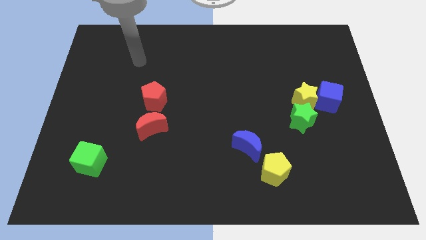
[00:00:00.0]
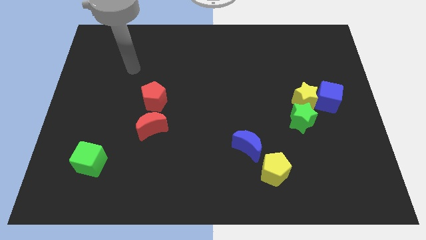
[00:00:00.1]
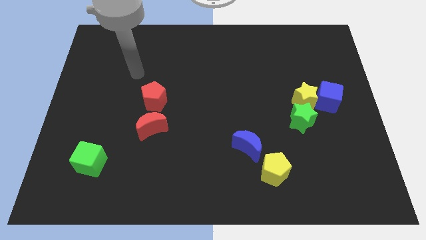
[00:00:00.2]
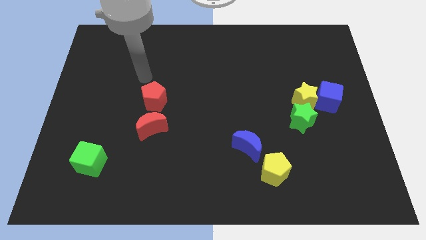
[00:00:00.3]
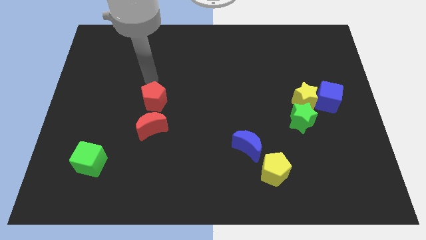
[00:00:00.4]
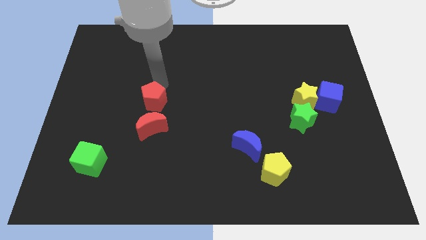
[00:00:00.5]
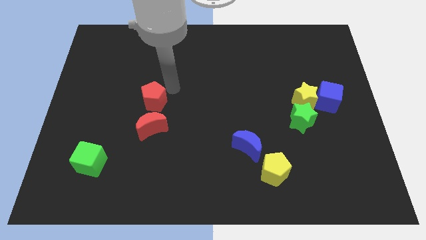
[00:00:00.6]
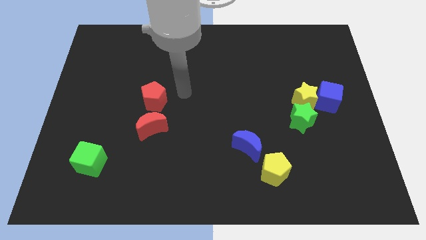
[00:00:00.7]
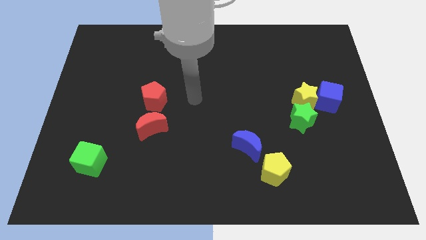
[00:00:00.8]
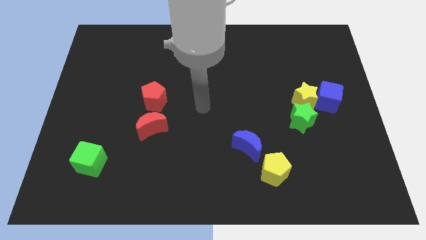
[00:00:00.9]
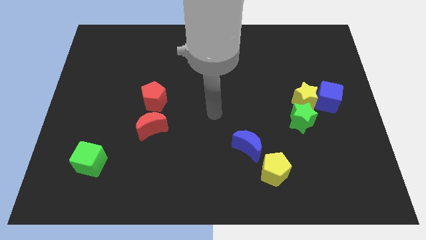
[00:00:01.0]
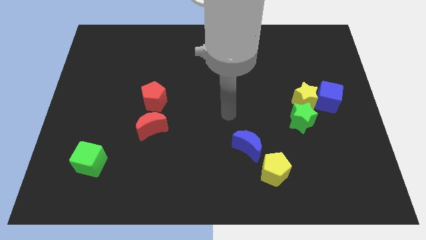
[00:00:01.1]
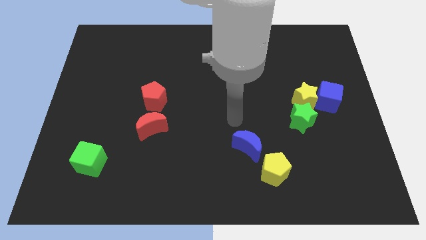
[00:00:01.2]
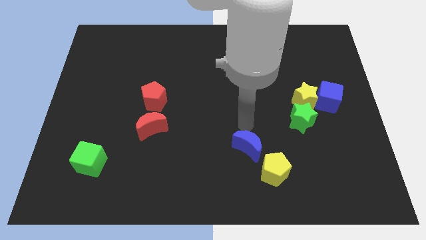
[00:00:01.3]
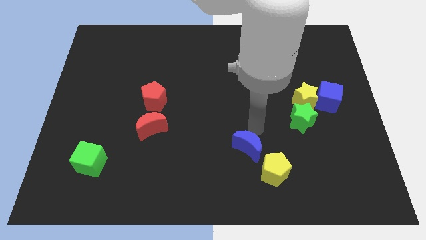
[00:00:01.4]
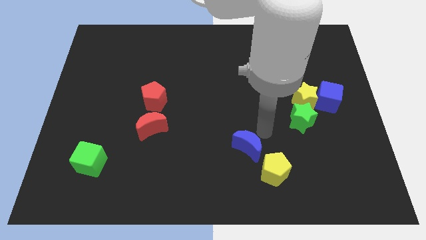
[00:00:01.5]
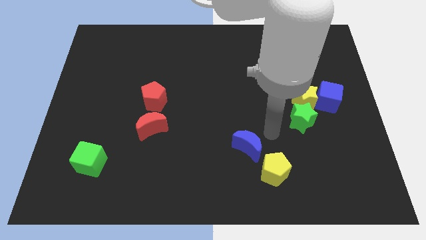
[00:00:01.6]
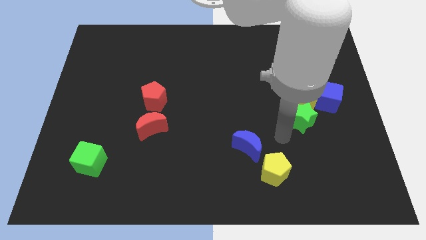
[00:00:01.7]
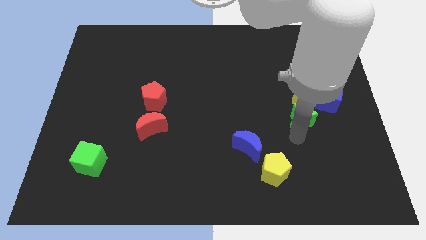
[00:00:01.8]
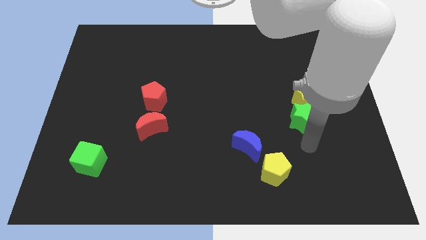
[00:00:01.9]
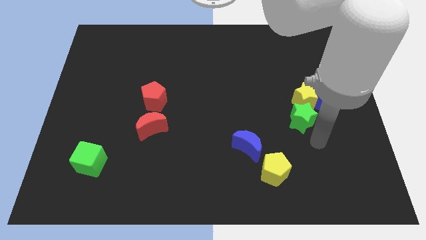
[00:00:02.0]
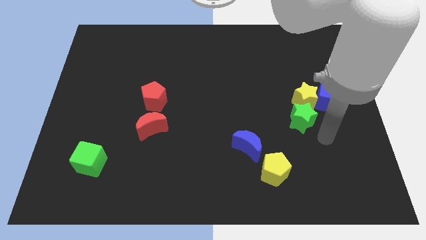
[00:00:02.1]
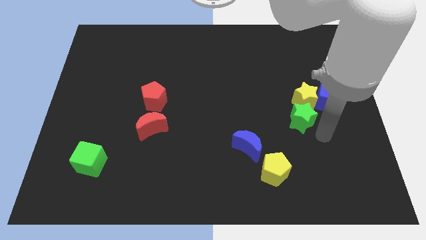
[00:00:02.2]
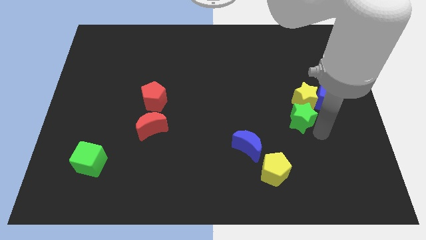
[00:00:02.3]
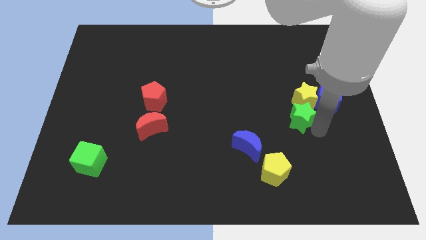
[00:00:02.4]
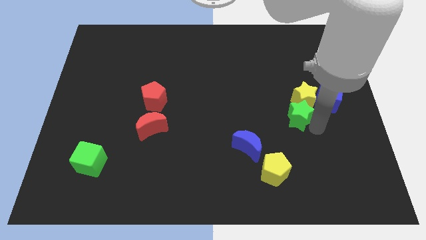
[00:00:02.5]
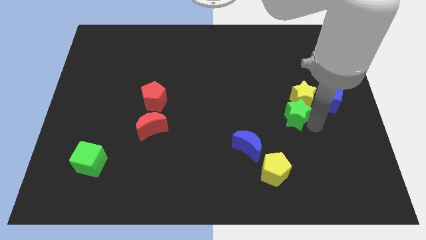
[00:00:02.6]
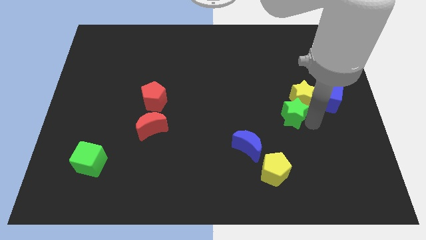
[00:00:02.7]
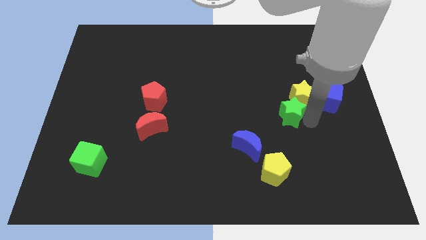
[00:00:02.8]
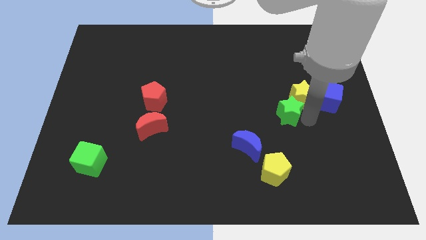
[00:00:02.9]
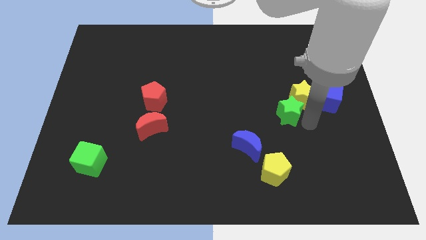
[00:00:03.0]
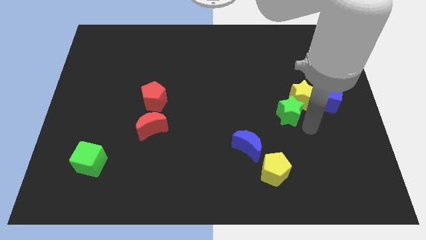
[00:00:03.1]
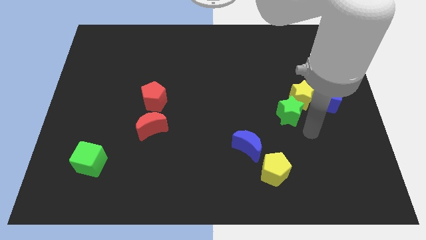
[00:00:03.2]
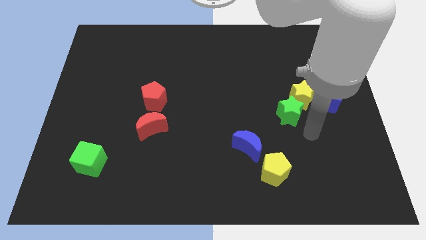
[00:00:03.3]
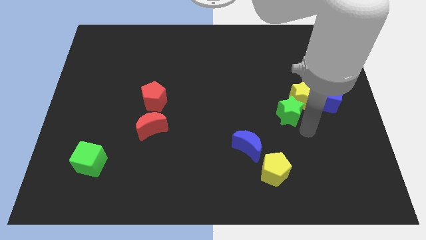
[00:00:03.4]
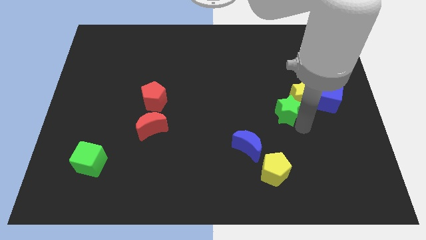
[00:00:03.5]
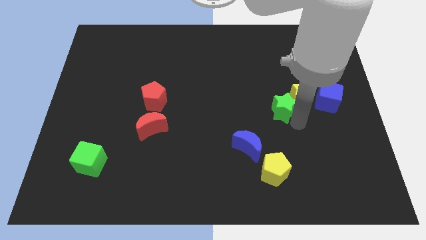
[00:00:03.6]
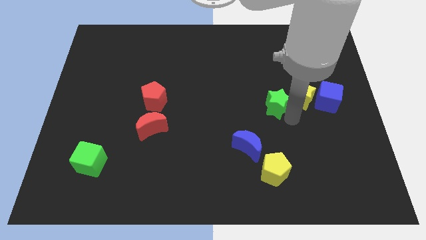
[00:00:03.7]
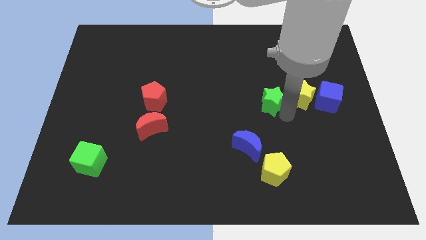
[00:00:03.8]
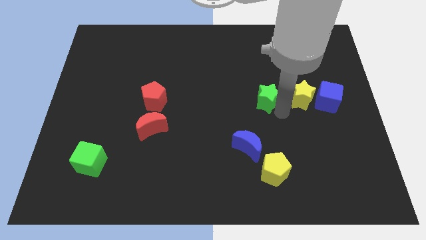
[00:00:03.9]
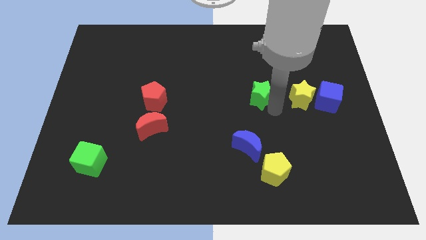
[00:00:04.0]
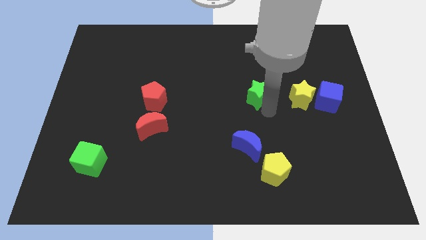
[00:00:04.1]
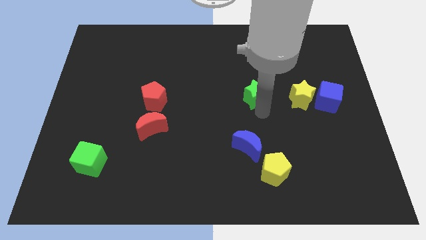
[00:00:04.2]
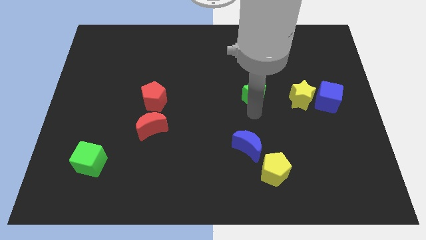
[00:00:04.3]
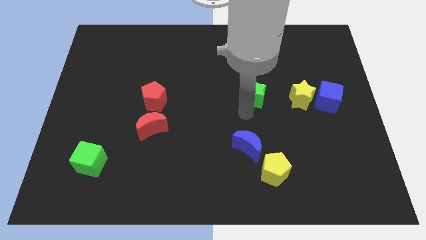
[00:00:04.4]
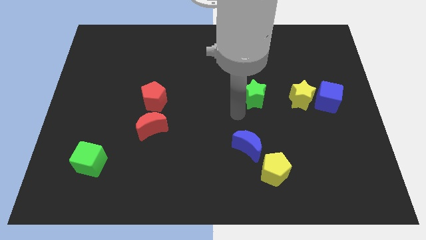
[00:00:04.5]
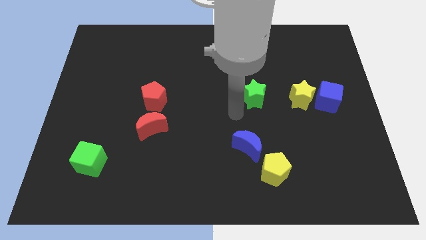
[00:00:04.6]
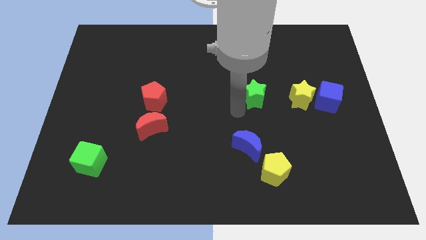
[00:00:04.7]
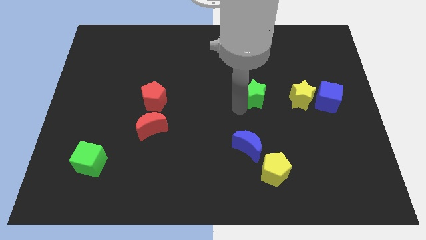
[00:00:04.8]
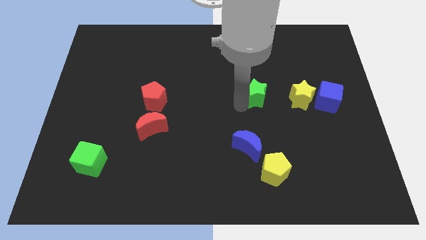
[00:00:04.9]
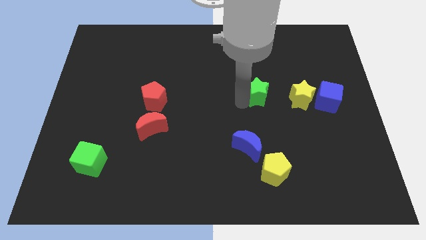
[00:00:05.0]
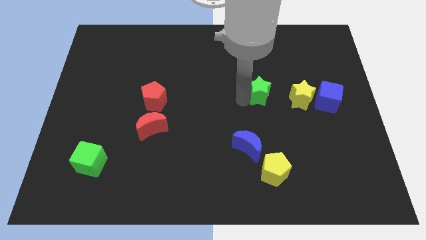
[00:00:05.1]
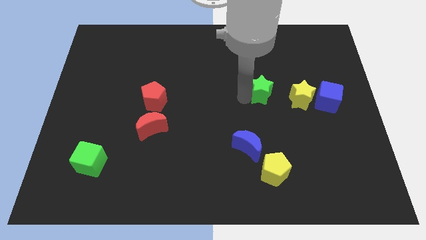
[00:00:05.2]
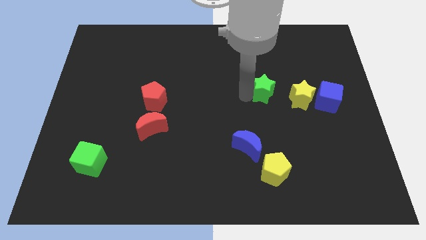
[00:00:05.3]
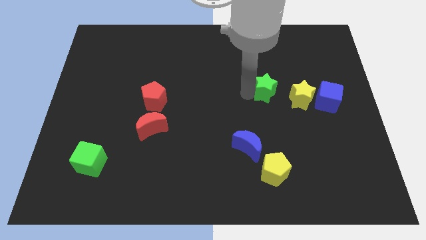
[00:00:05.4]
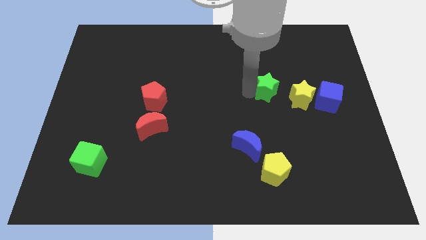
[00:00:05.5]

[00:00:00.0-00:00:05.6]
slide the green star upwards a bit

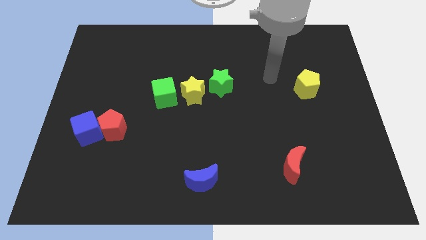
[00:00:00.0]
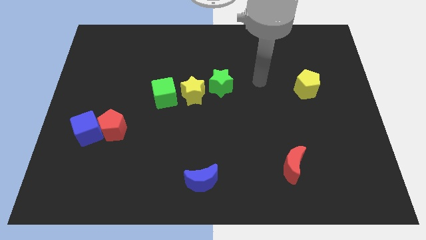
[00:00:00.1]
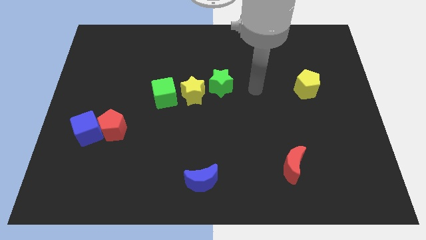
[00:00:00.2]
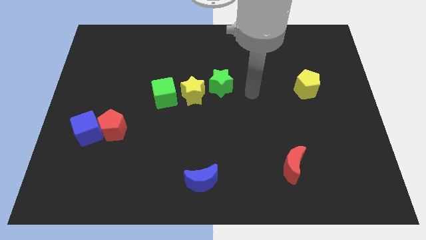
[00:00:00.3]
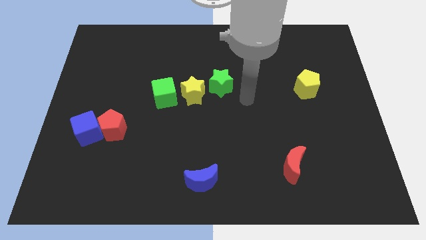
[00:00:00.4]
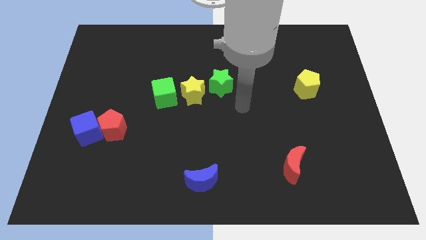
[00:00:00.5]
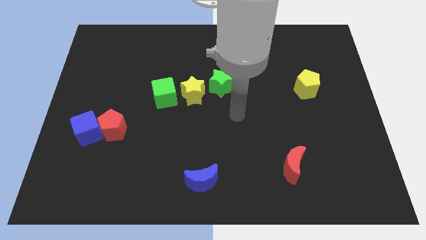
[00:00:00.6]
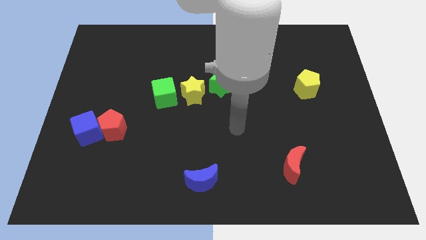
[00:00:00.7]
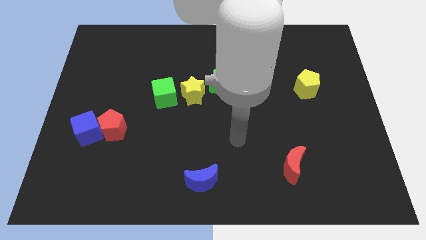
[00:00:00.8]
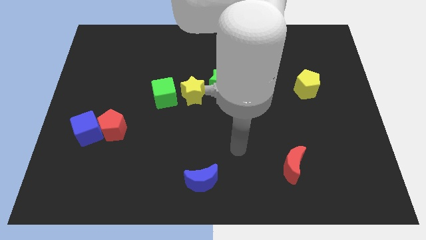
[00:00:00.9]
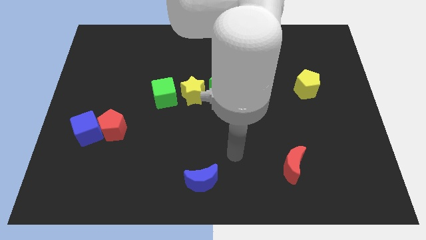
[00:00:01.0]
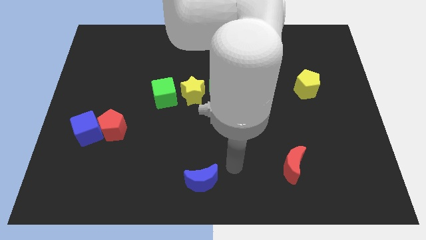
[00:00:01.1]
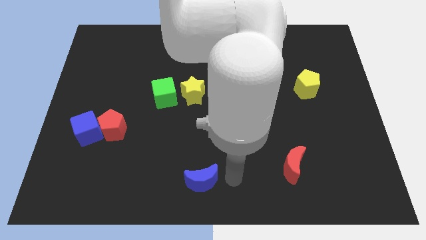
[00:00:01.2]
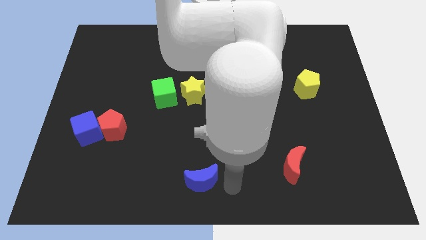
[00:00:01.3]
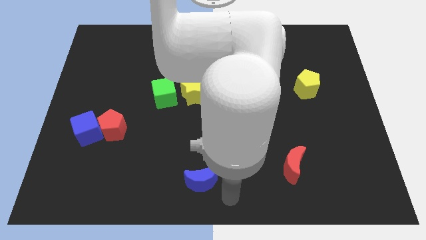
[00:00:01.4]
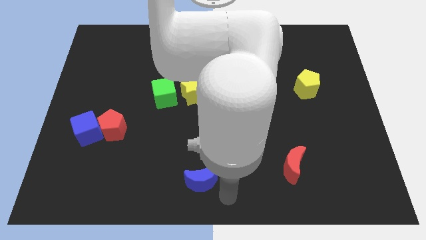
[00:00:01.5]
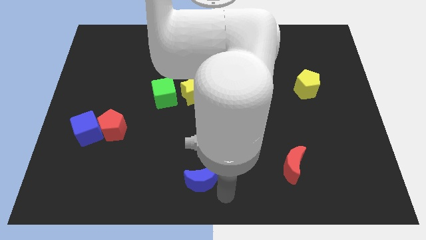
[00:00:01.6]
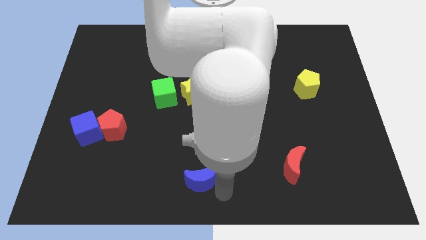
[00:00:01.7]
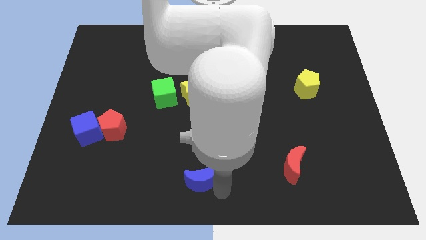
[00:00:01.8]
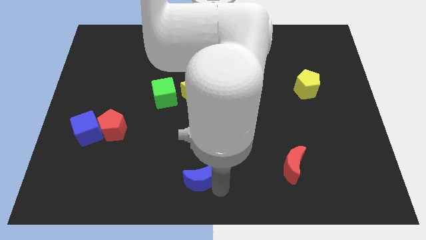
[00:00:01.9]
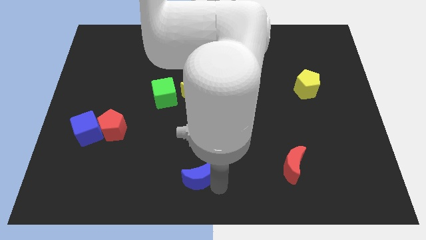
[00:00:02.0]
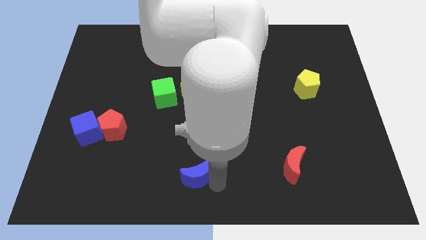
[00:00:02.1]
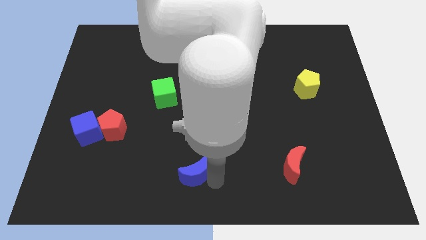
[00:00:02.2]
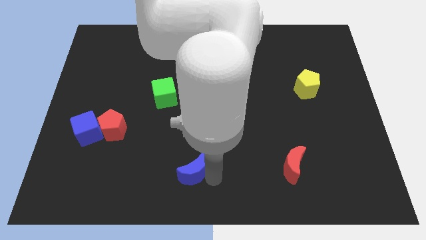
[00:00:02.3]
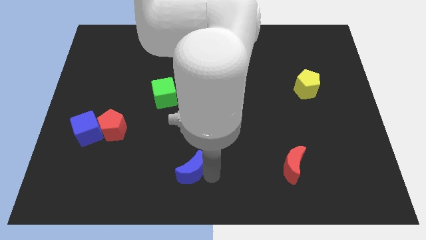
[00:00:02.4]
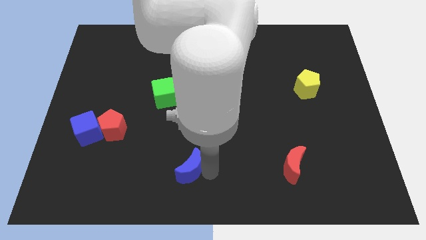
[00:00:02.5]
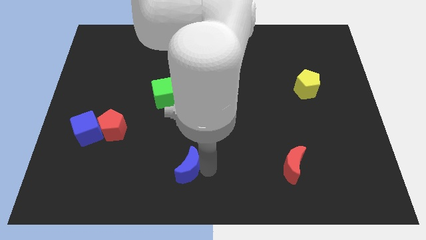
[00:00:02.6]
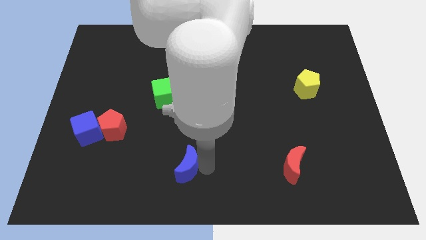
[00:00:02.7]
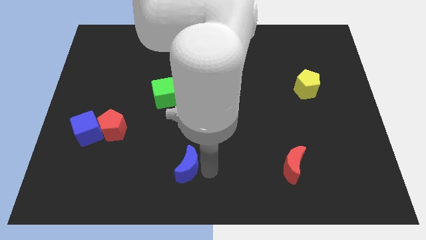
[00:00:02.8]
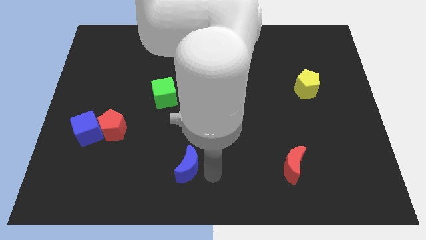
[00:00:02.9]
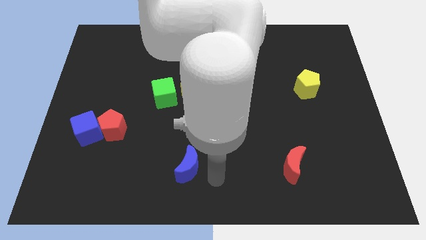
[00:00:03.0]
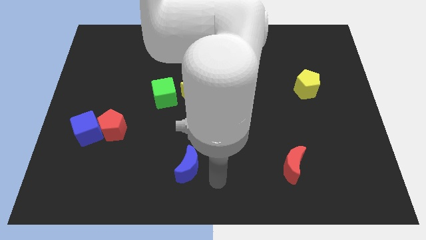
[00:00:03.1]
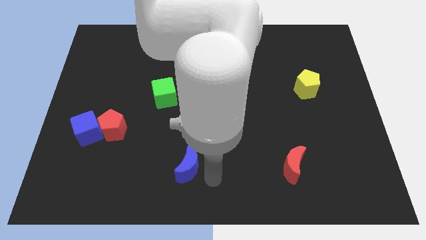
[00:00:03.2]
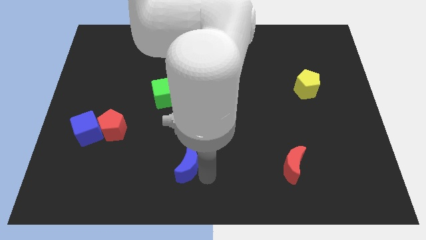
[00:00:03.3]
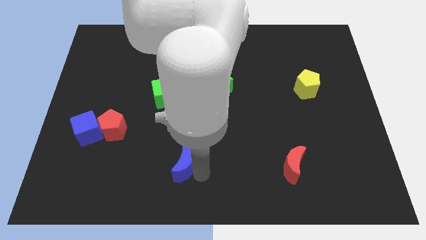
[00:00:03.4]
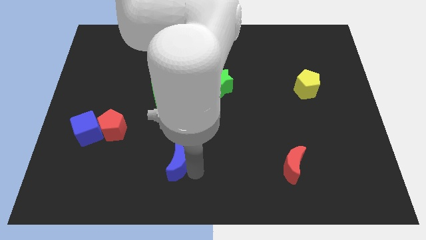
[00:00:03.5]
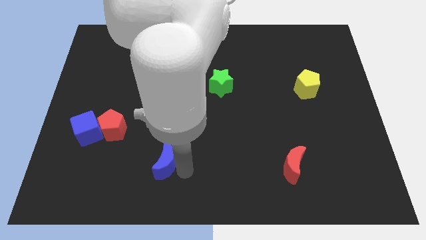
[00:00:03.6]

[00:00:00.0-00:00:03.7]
slide the blue moon slightly diagonally up and left
